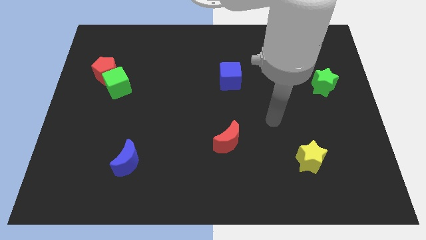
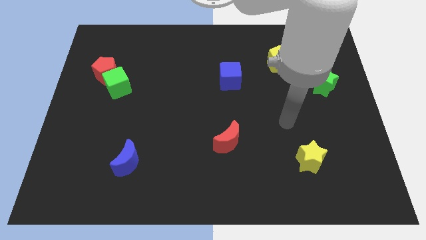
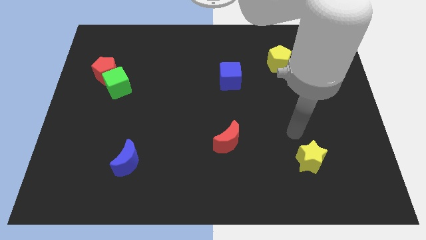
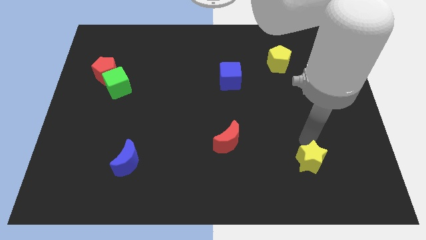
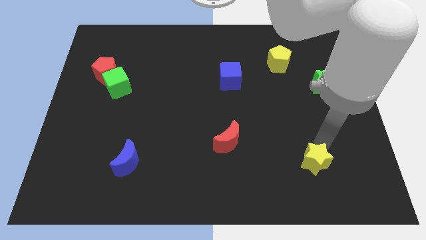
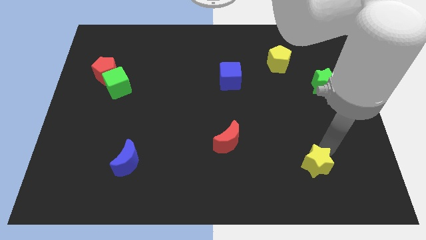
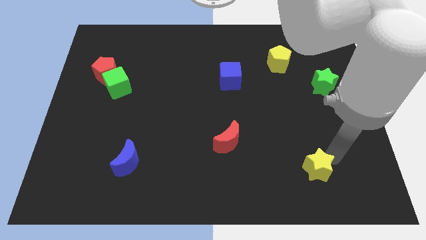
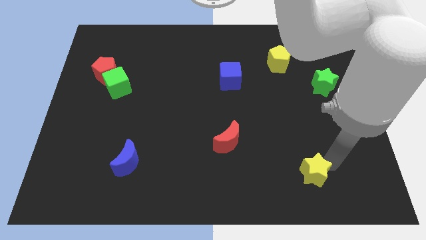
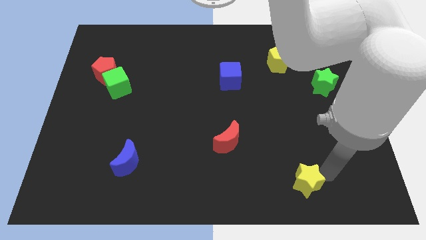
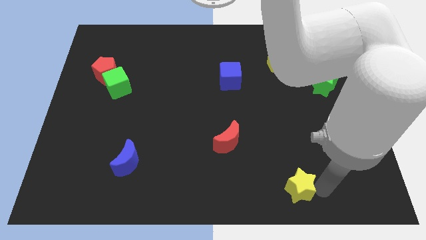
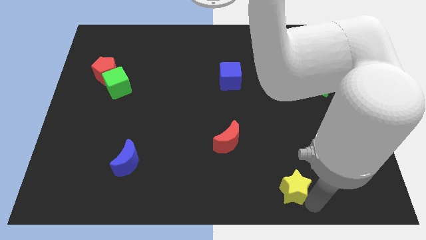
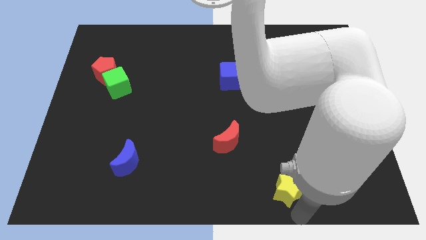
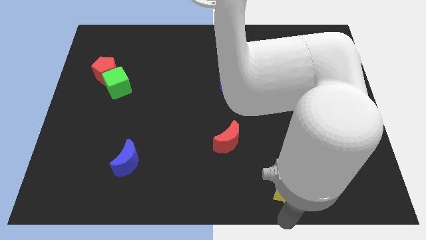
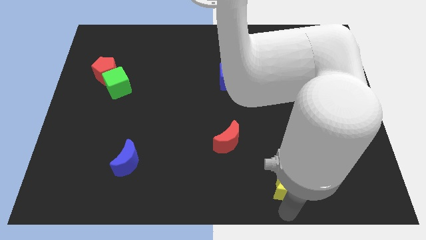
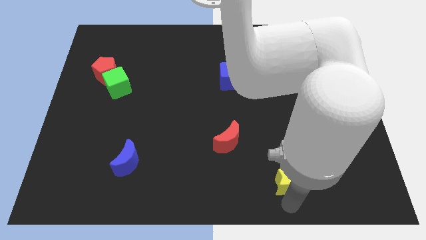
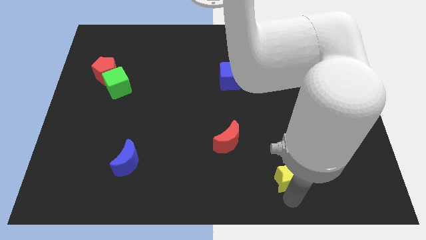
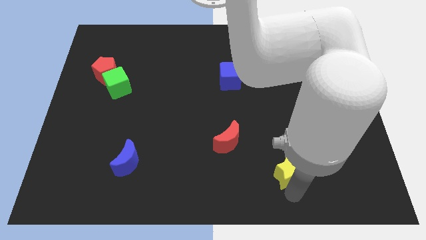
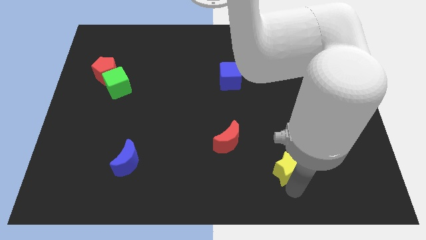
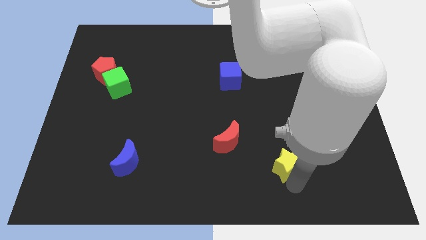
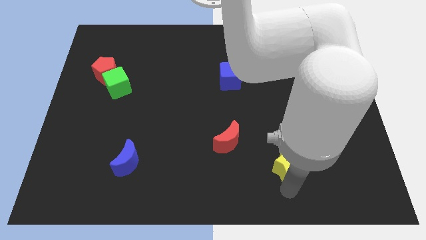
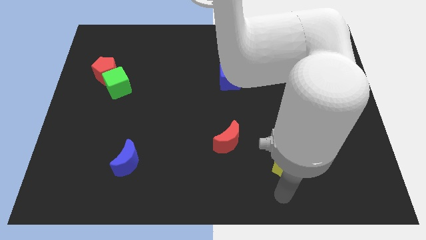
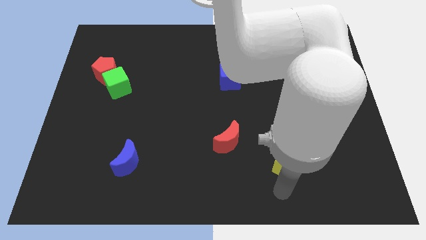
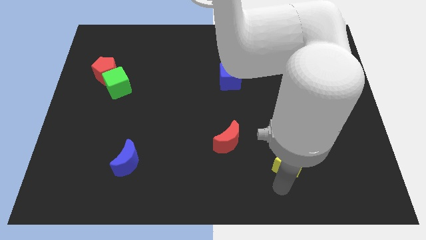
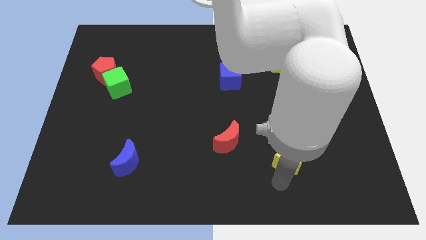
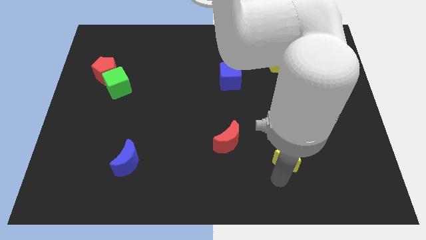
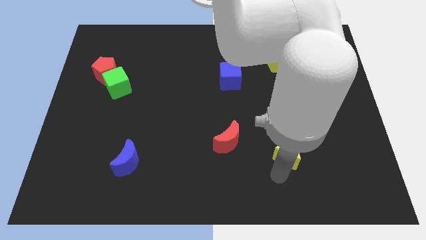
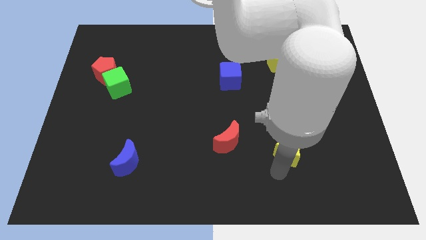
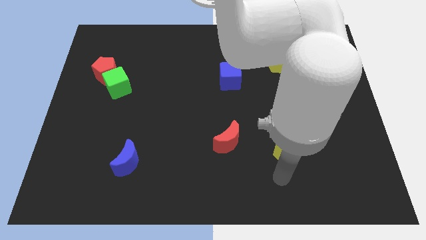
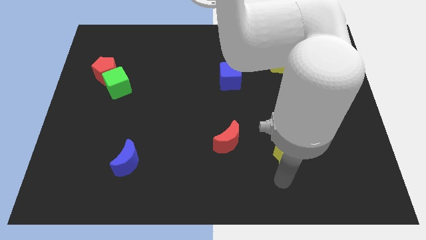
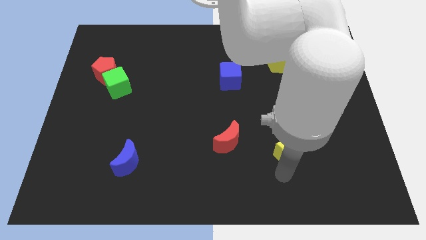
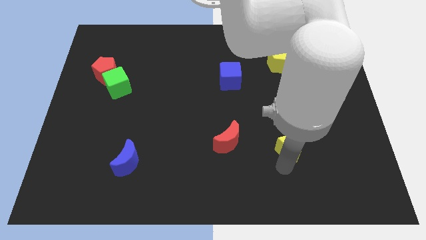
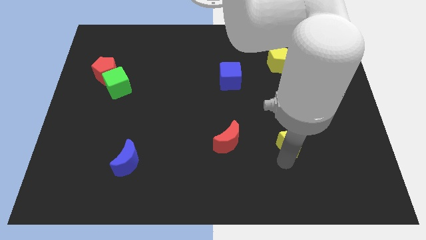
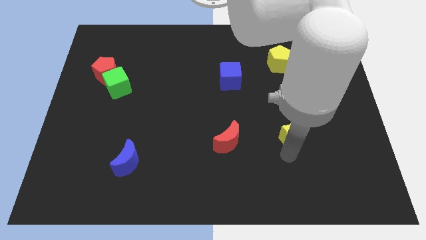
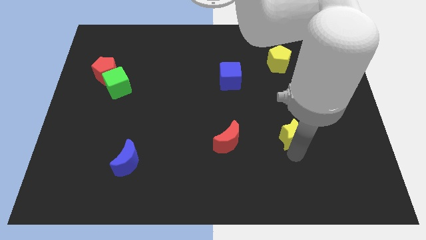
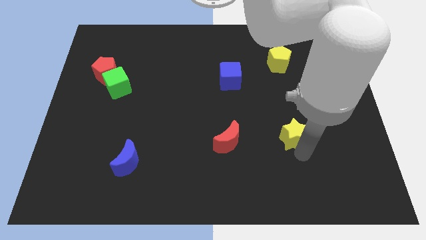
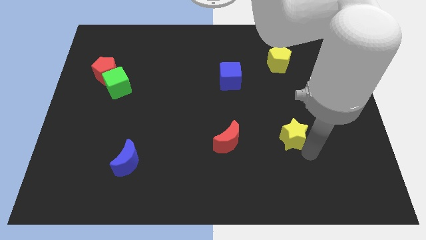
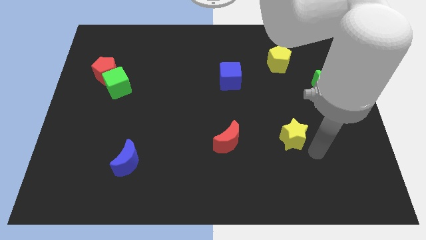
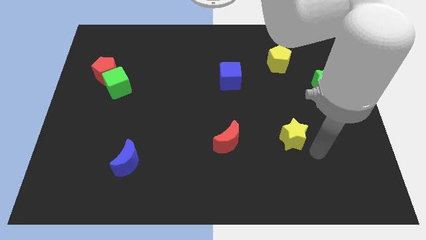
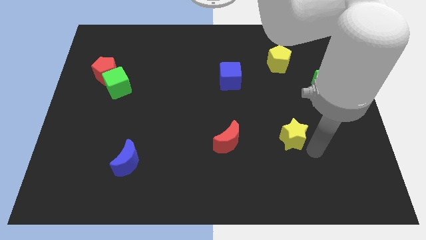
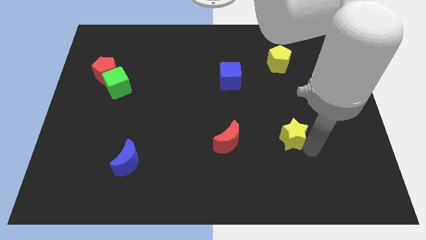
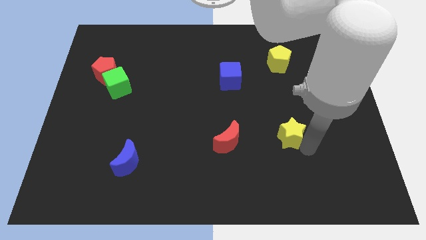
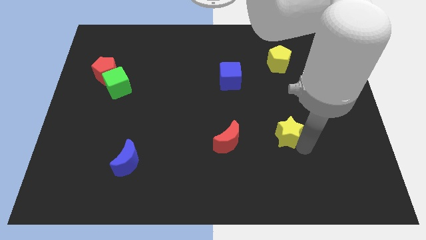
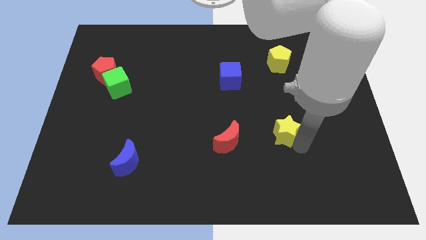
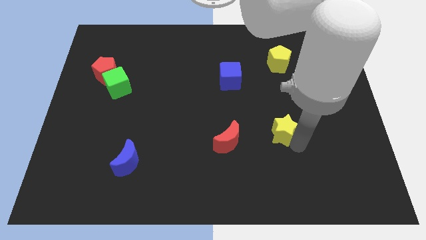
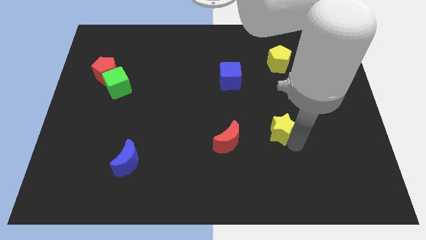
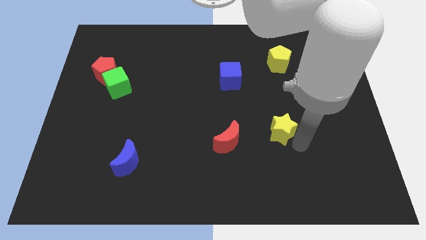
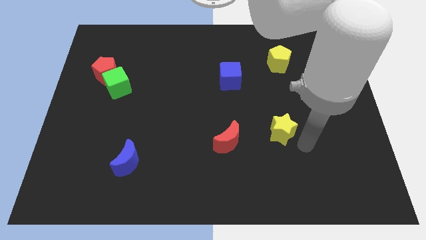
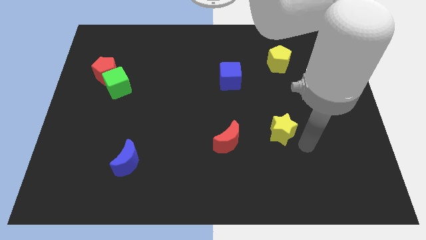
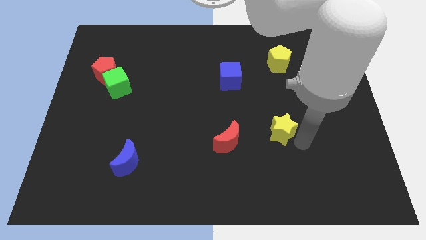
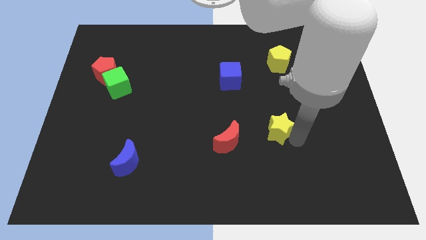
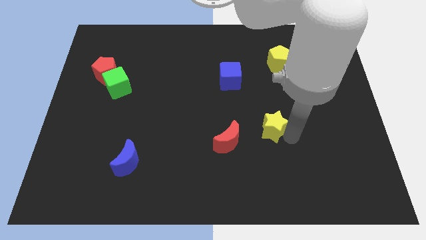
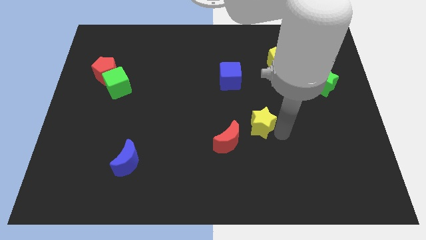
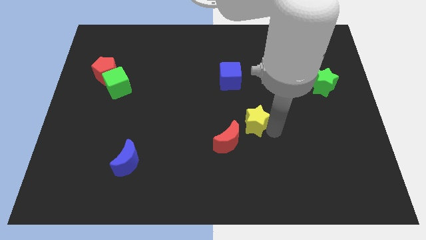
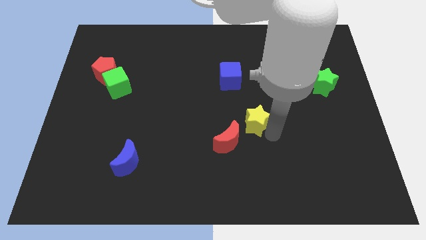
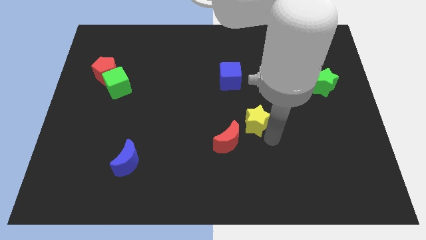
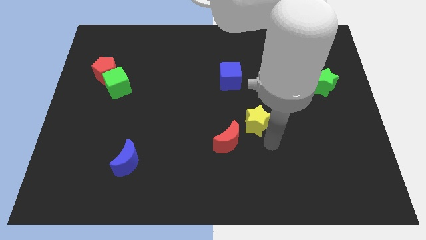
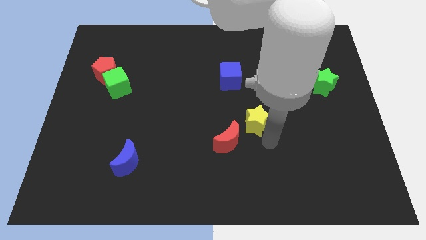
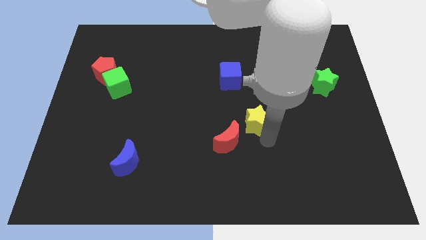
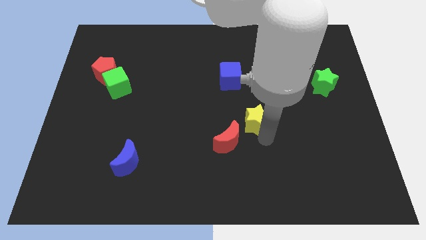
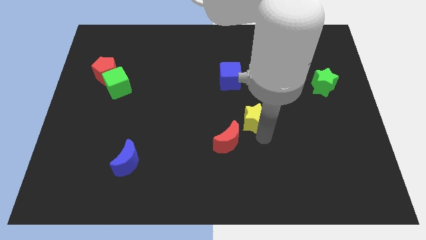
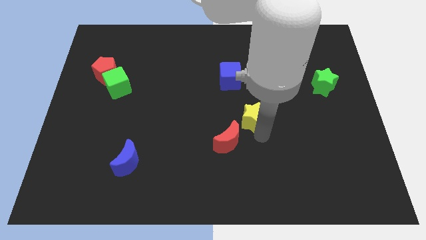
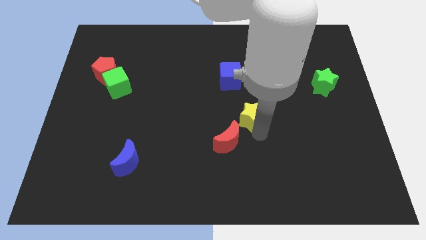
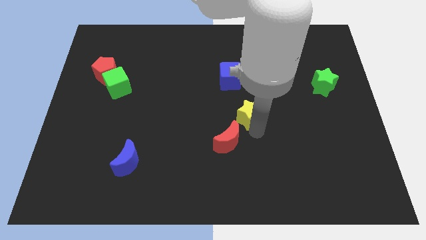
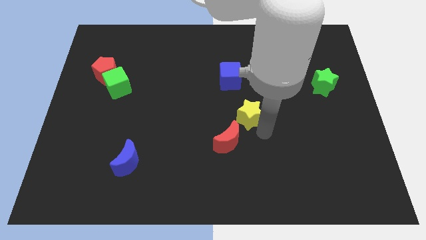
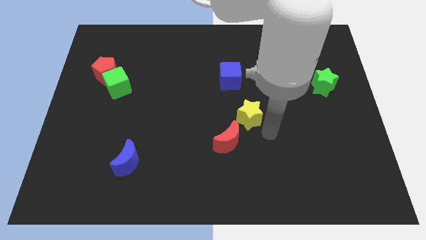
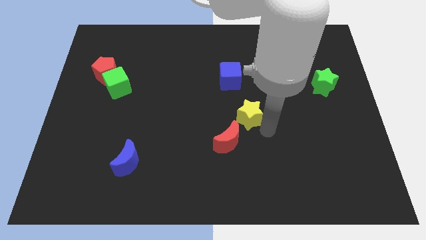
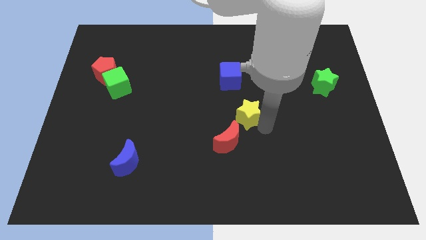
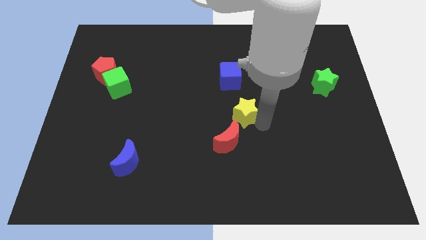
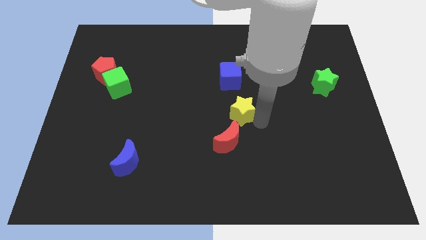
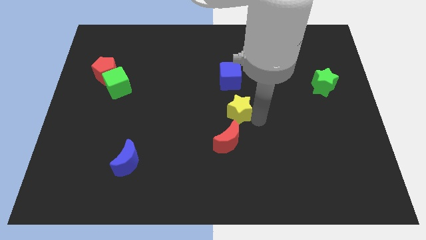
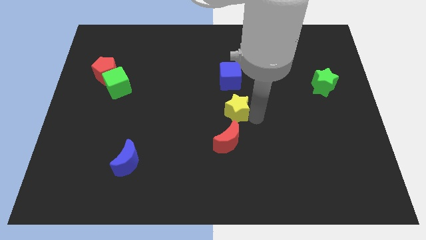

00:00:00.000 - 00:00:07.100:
slide the yellow star up and then left

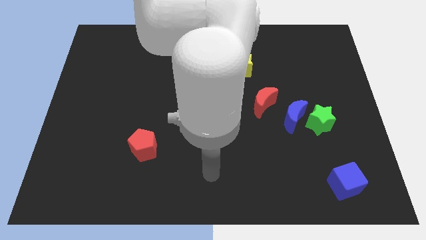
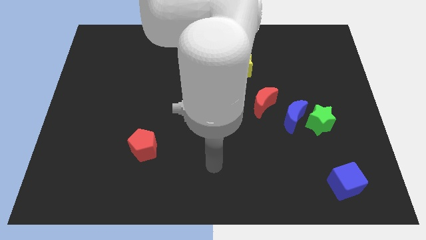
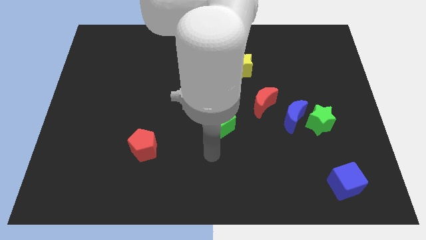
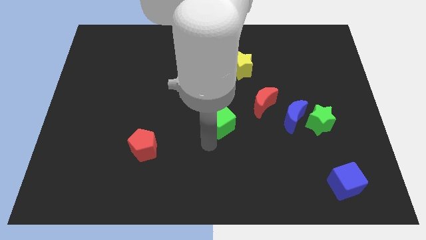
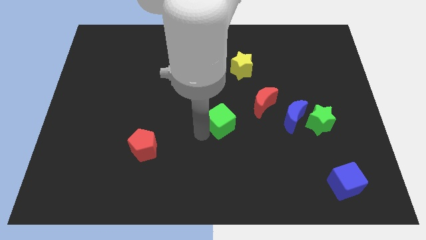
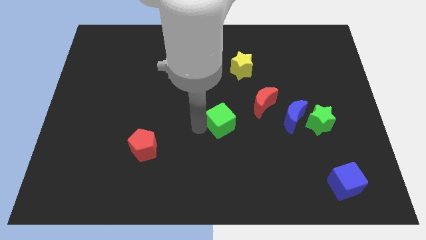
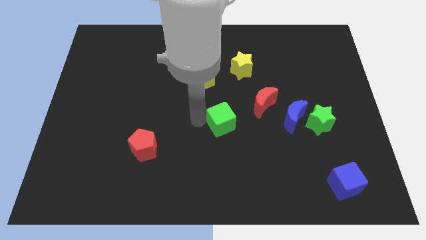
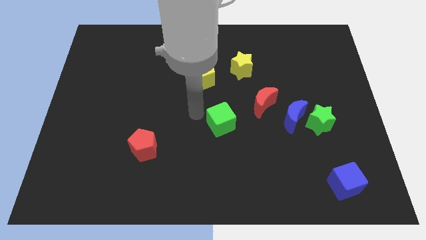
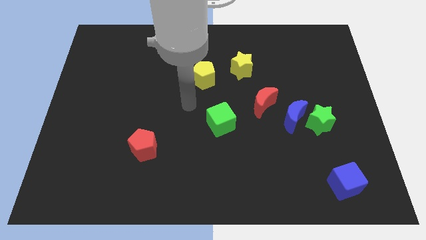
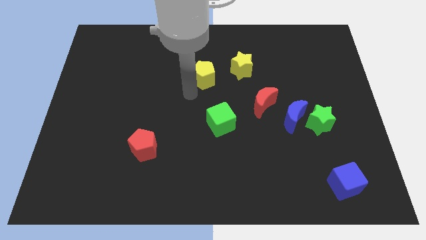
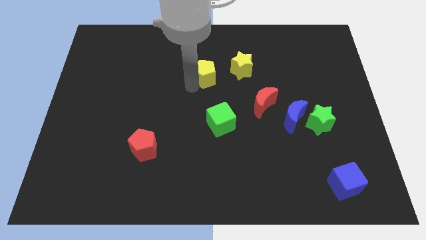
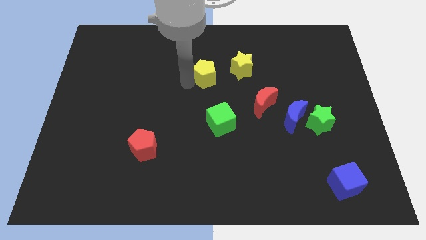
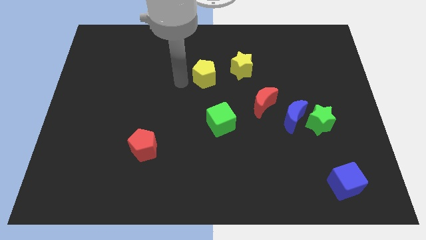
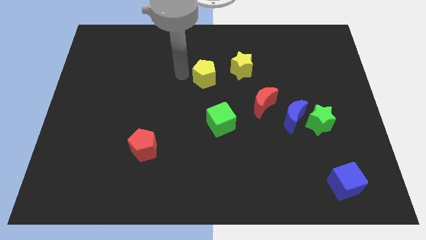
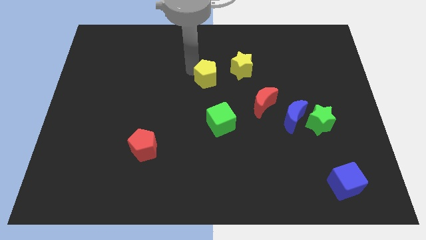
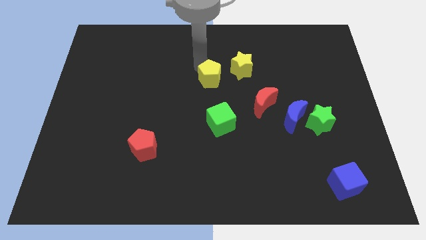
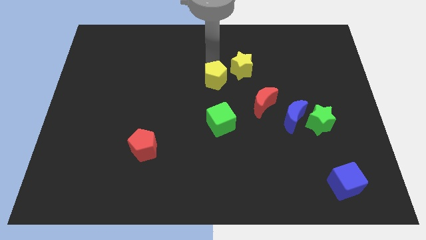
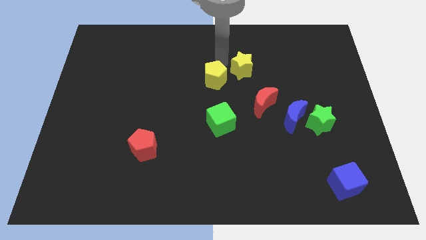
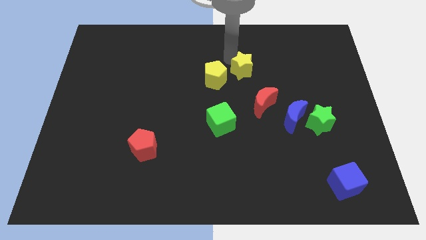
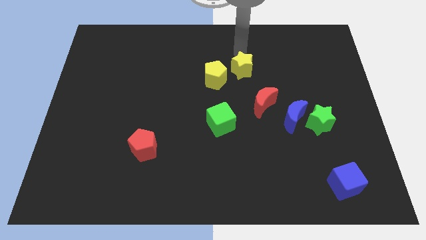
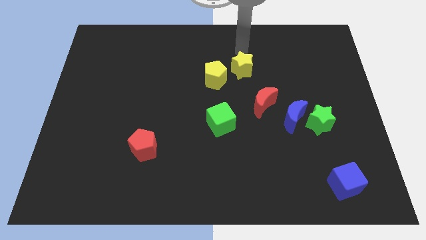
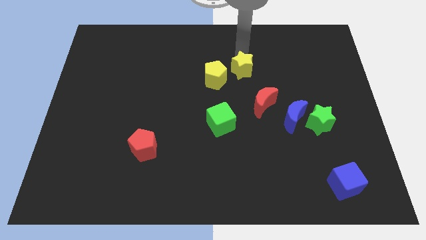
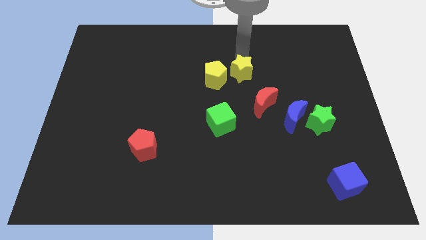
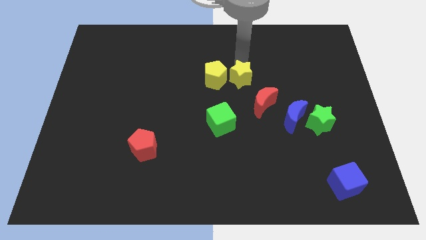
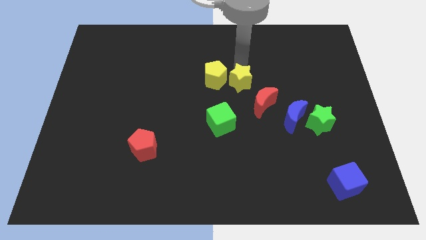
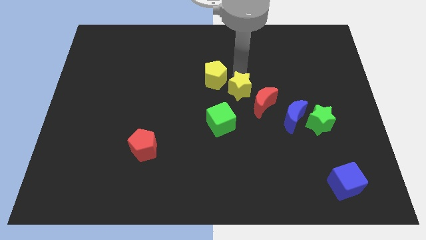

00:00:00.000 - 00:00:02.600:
slightly push the yellow star down
